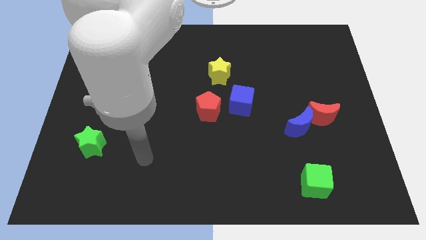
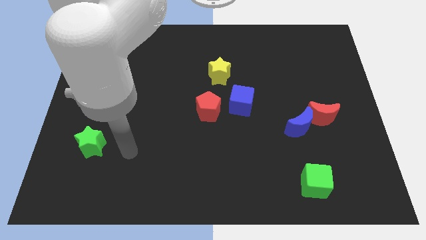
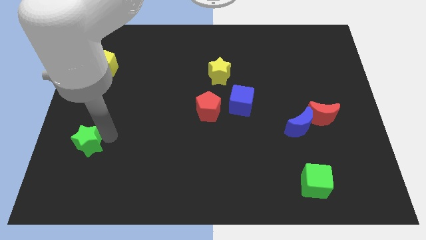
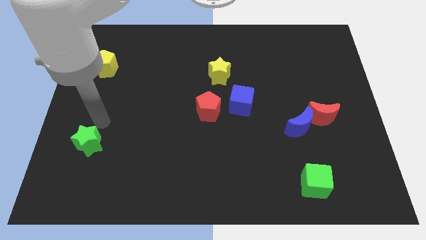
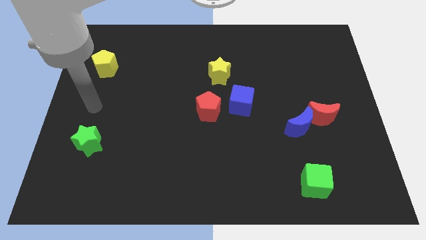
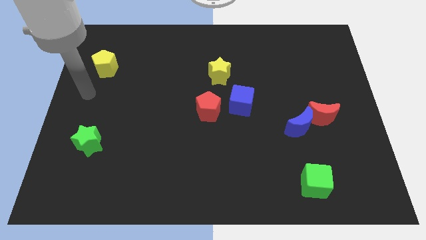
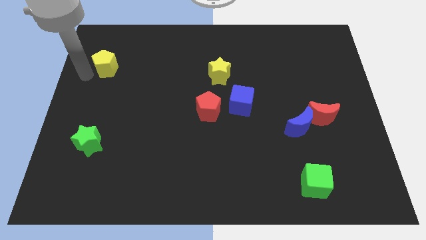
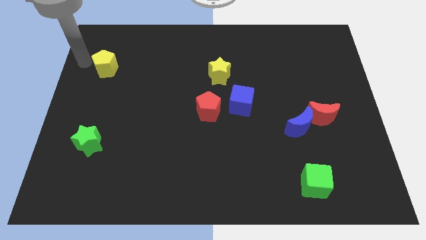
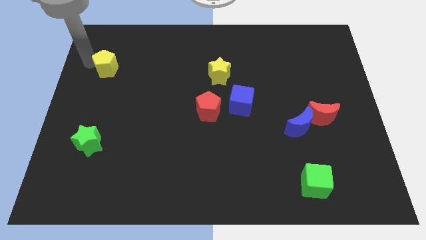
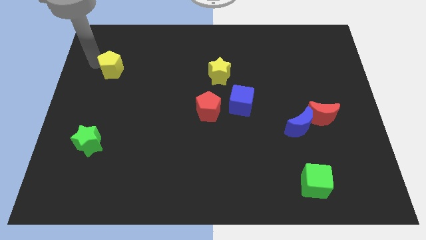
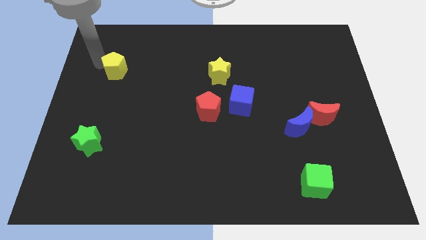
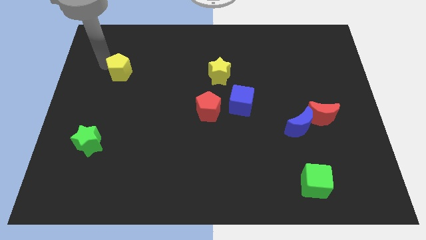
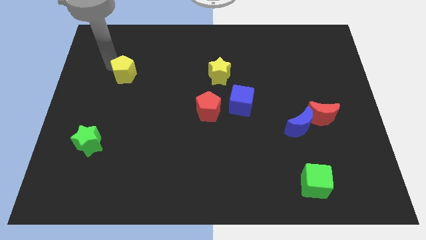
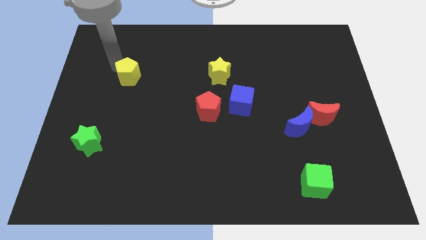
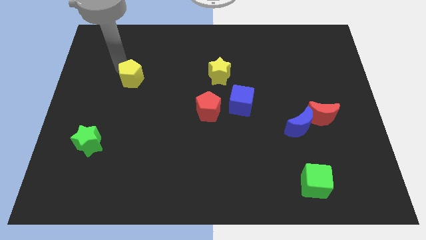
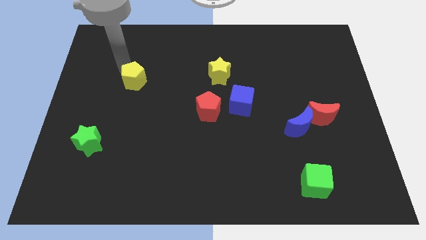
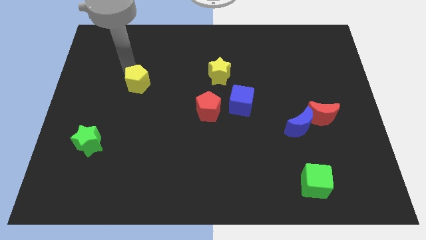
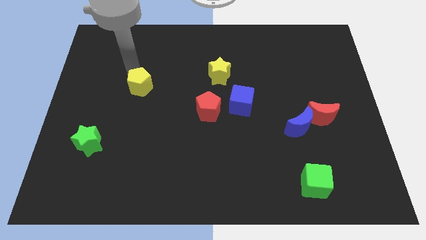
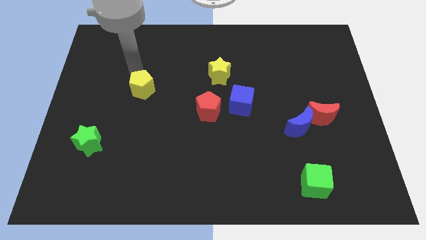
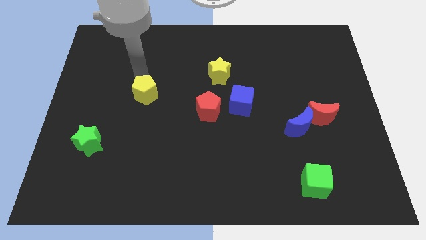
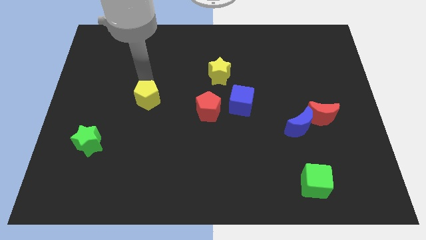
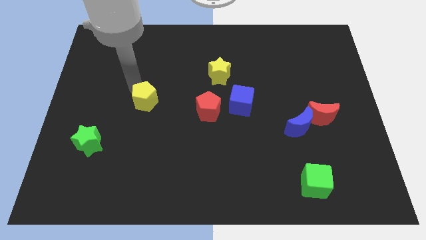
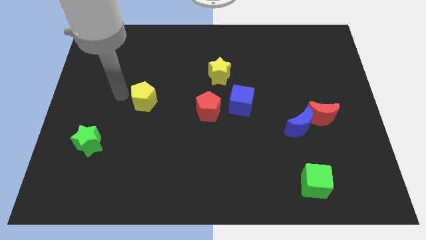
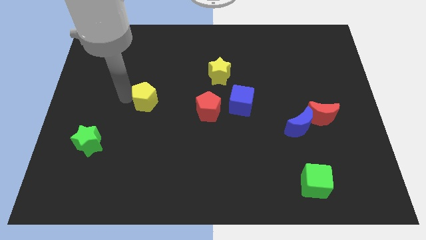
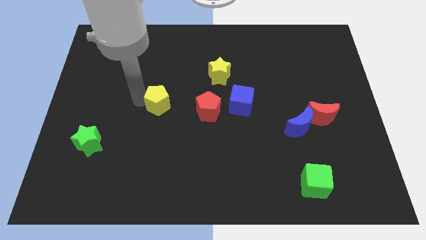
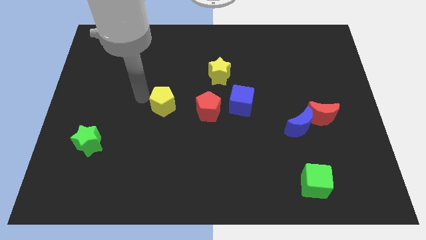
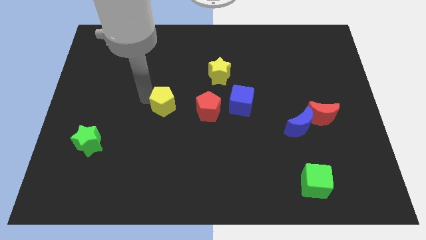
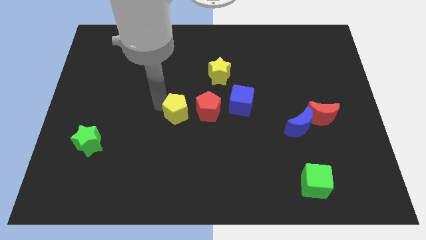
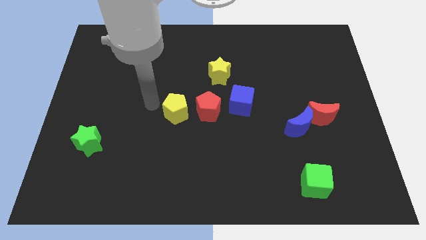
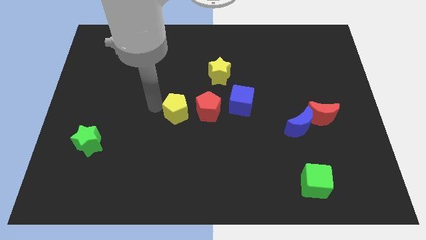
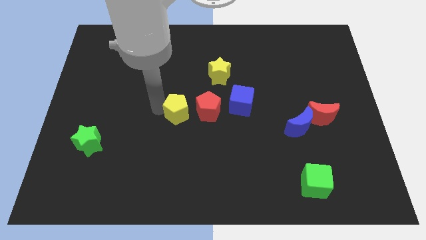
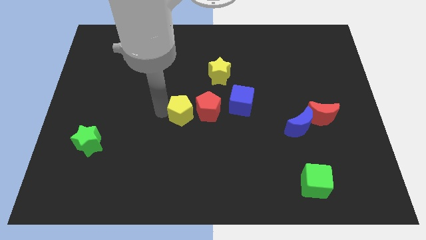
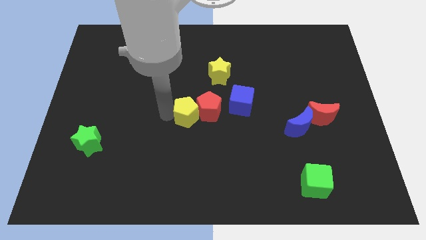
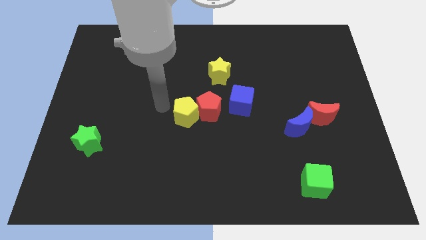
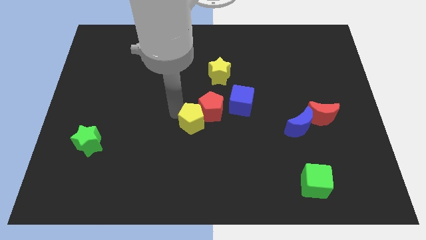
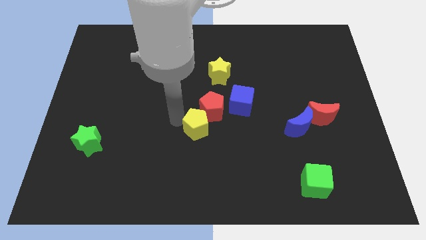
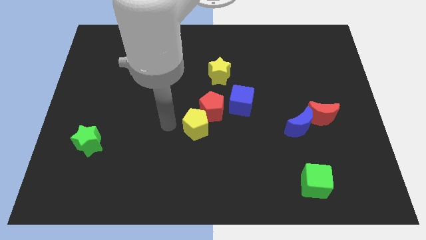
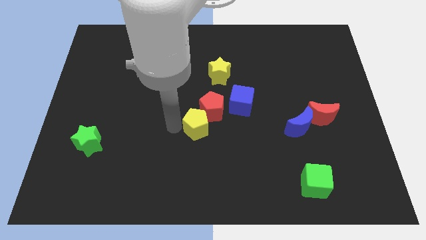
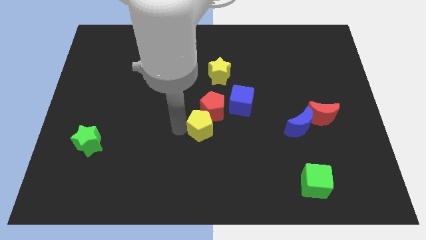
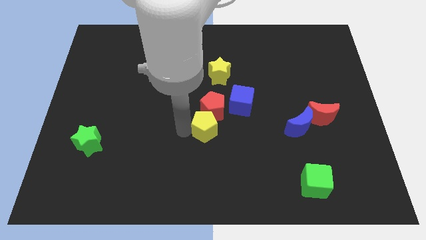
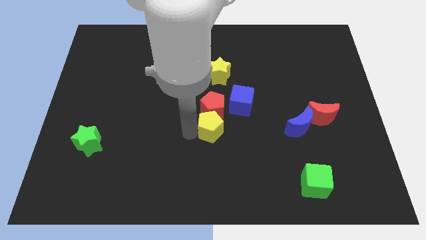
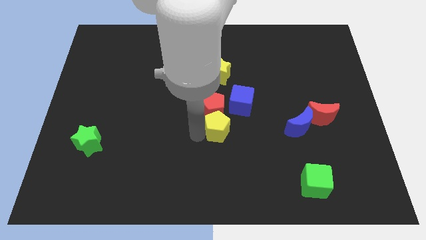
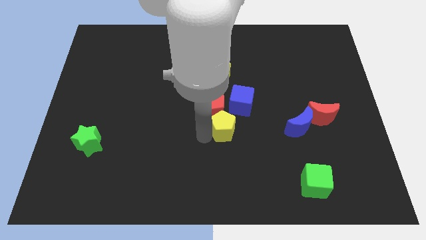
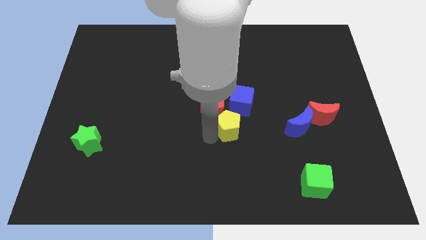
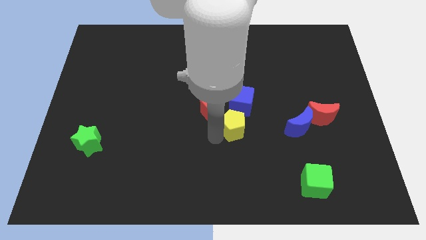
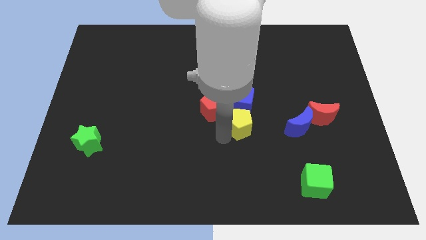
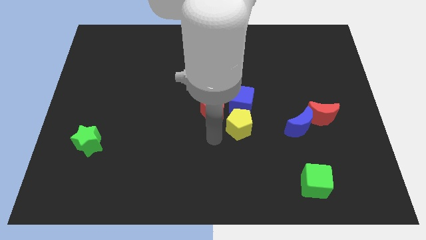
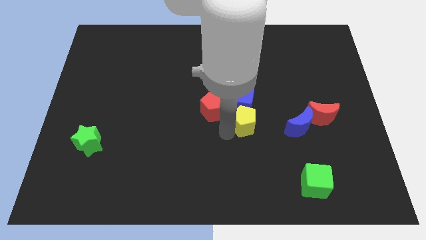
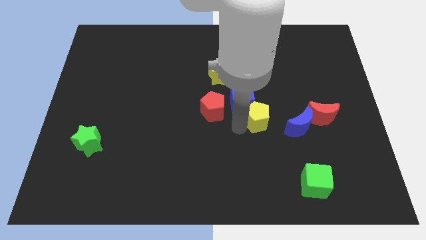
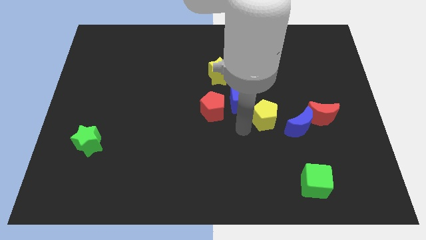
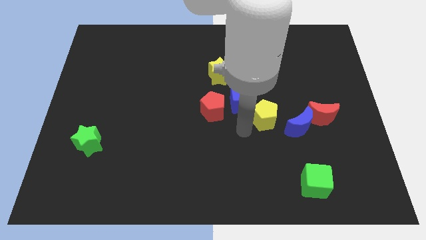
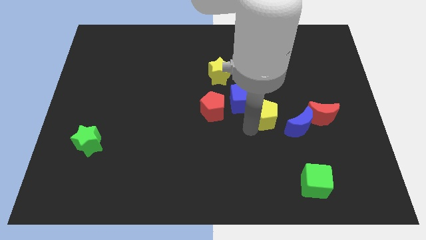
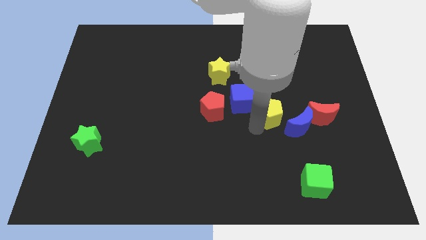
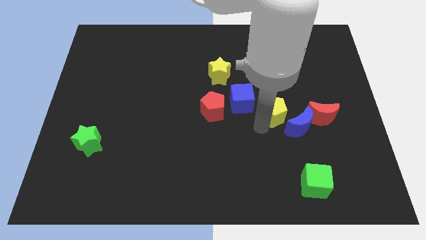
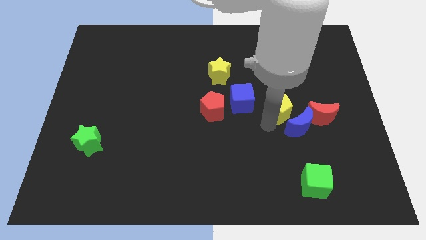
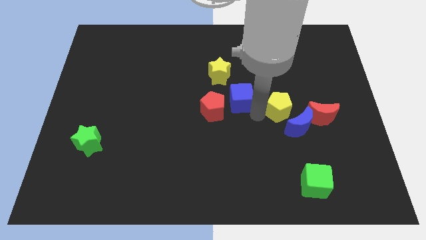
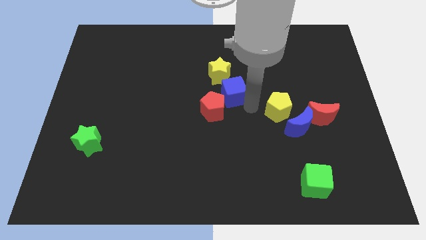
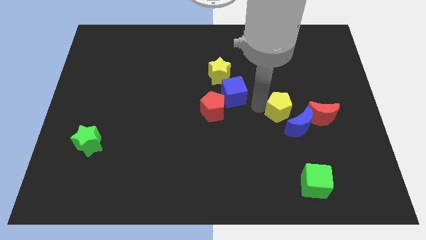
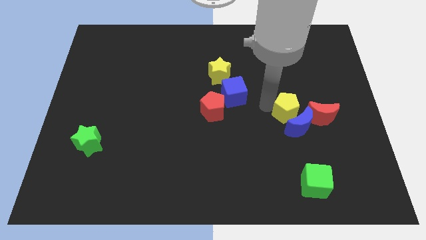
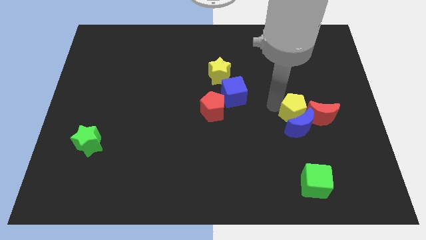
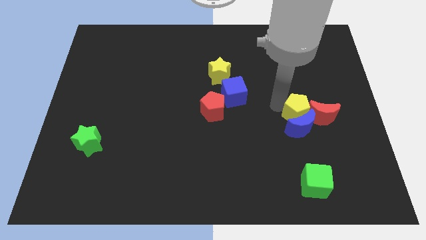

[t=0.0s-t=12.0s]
move the yellow pentagon next to the red moon

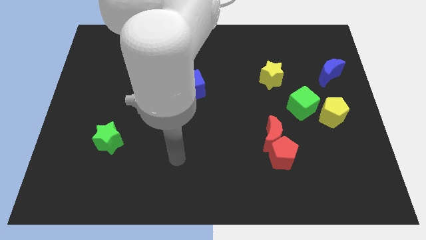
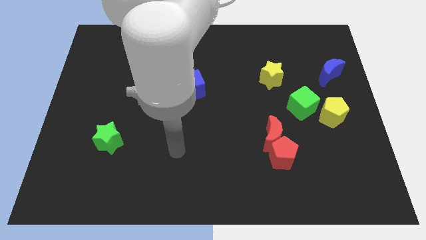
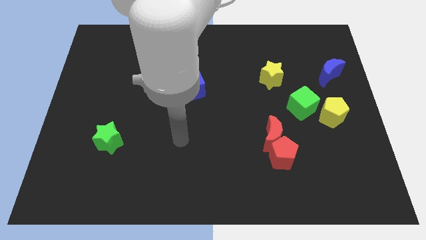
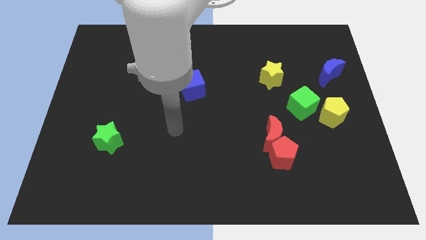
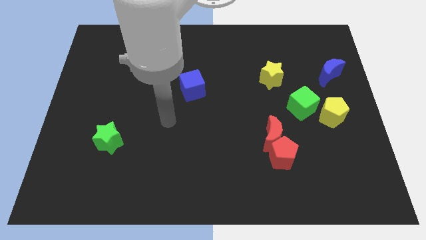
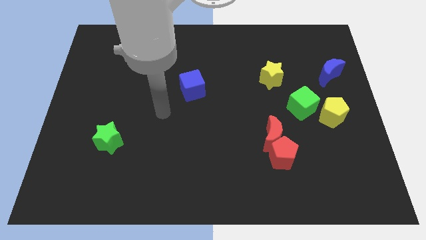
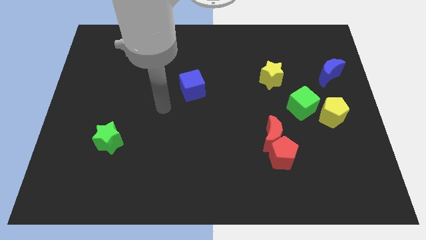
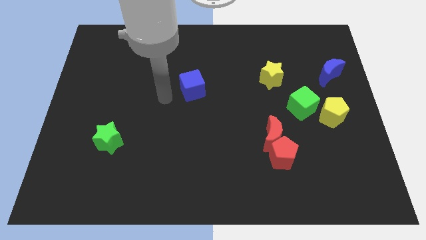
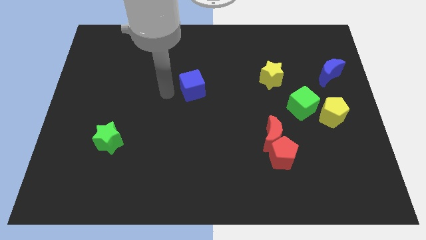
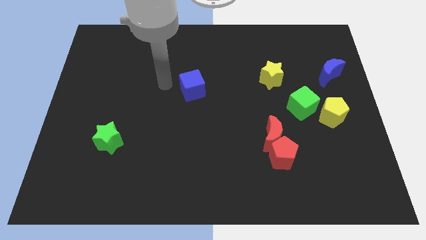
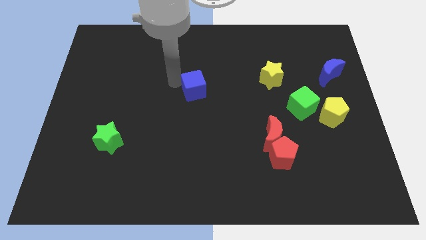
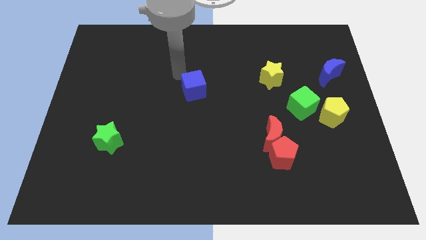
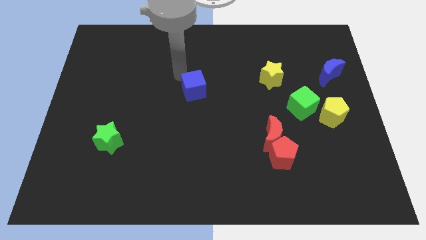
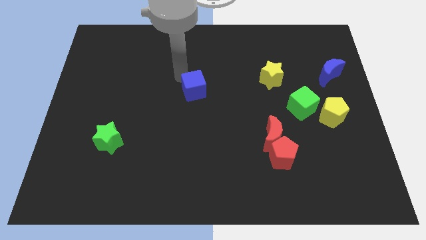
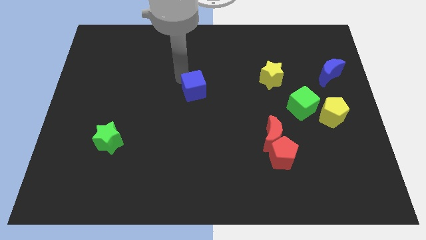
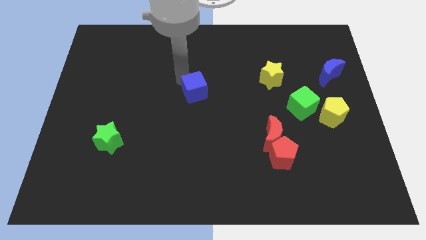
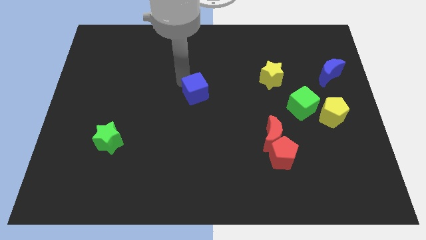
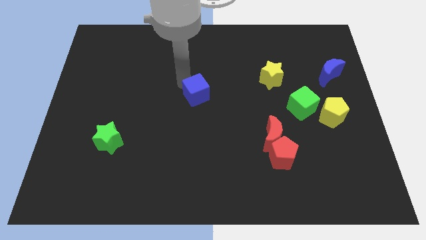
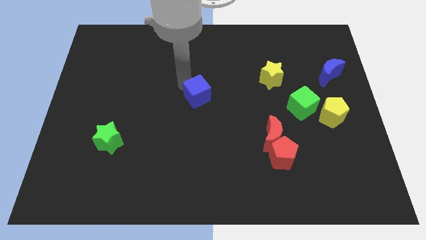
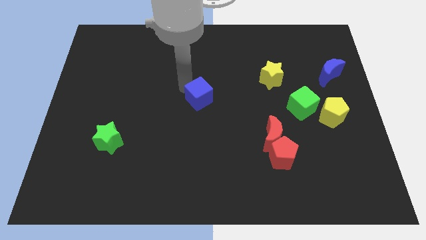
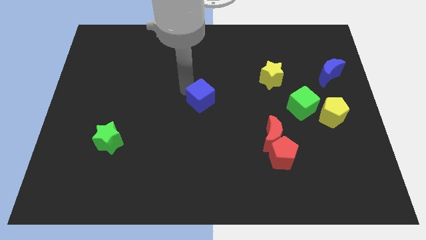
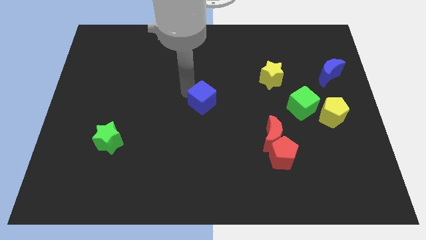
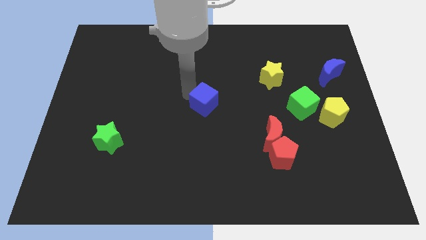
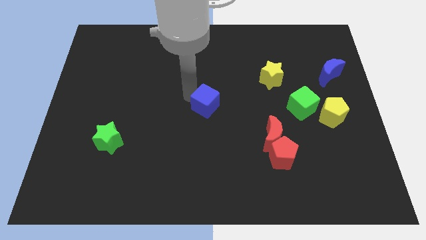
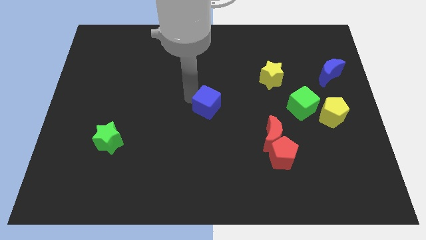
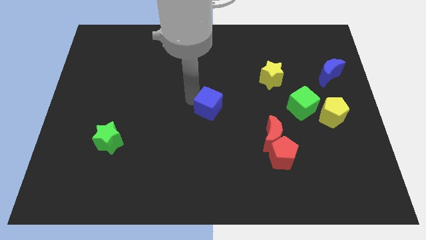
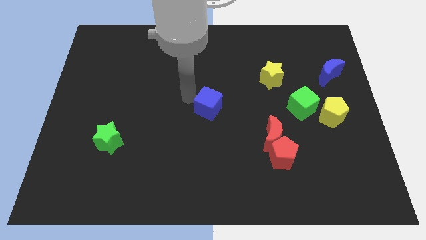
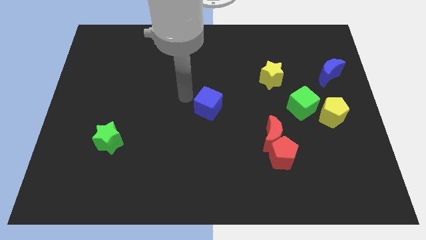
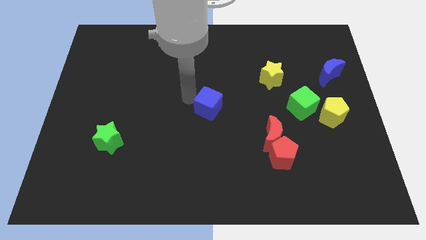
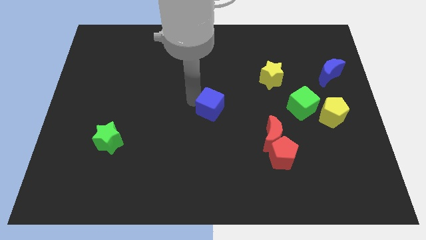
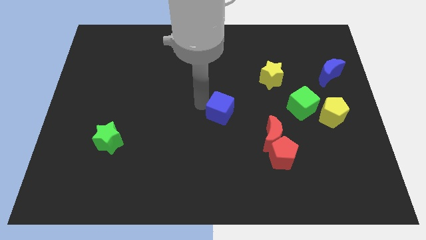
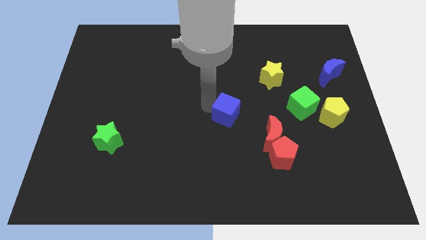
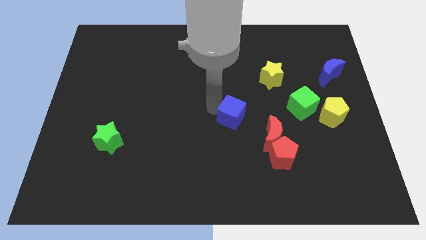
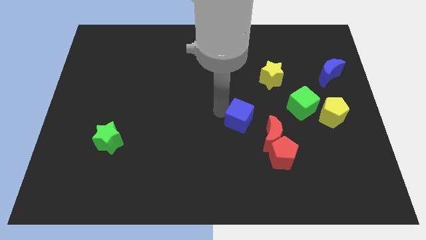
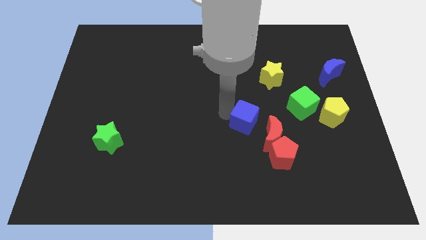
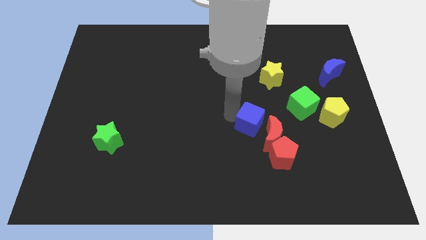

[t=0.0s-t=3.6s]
put the blue cube next to the red moon
